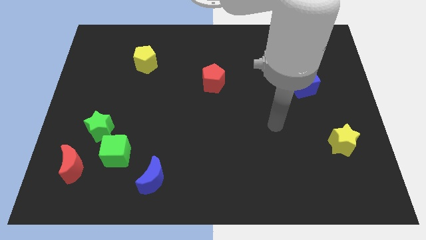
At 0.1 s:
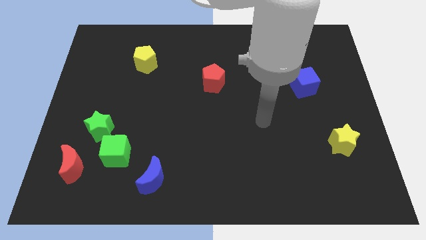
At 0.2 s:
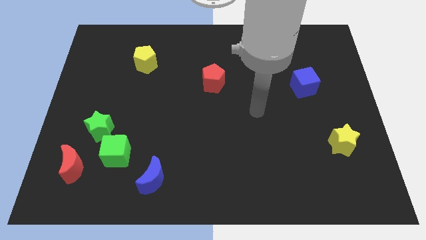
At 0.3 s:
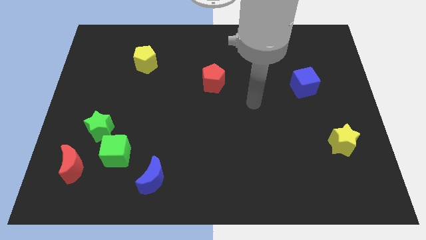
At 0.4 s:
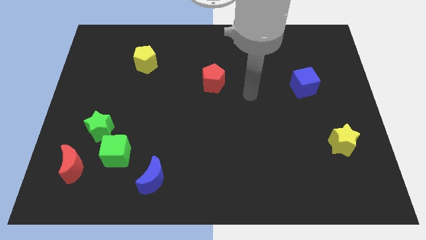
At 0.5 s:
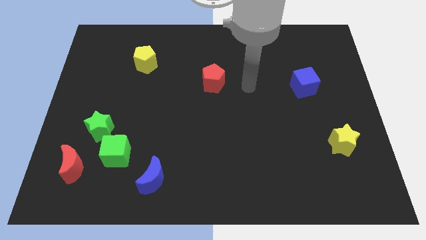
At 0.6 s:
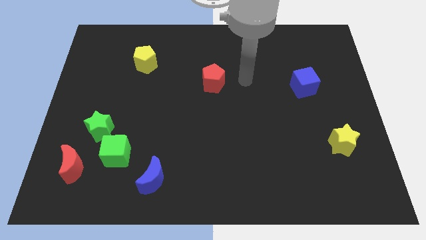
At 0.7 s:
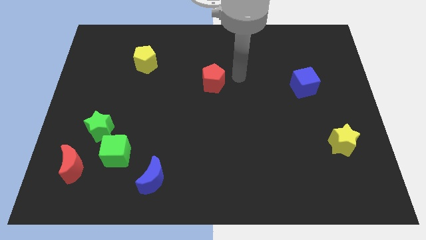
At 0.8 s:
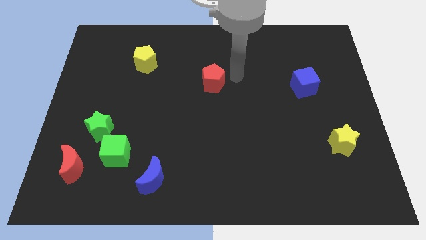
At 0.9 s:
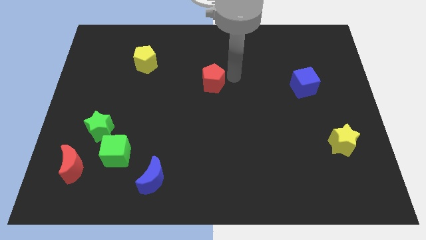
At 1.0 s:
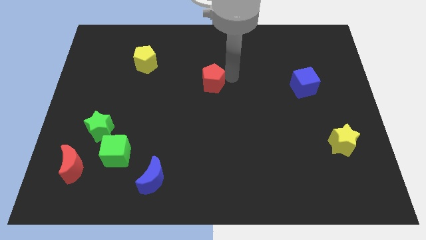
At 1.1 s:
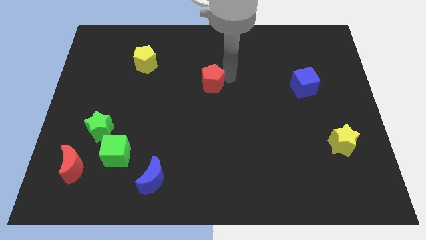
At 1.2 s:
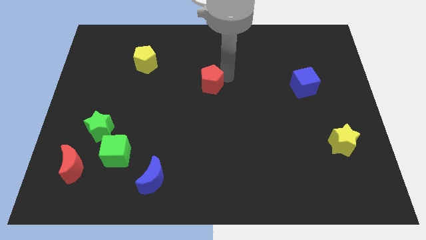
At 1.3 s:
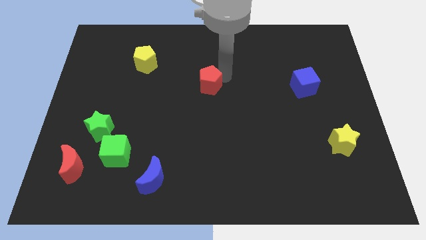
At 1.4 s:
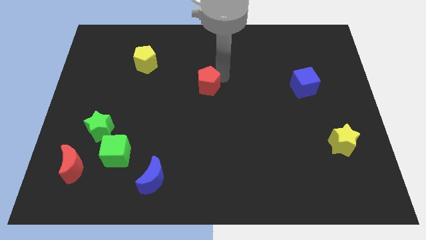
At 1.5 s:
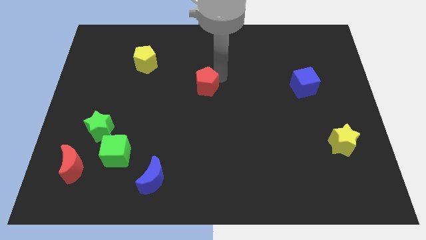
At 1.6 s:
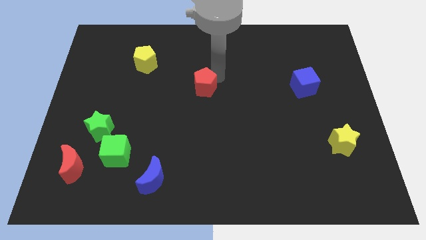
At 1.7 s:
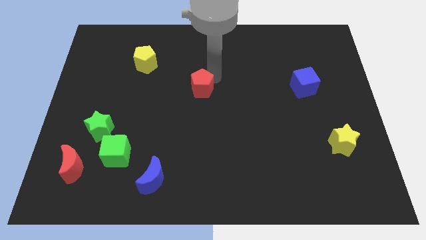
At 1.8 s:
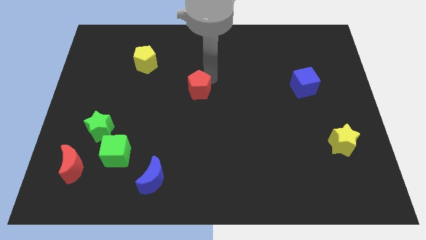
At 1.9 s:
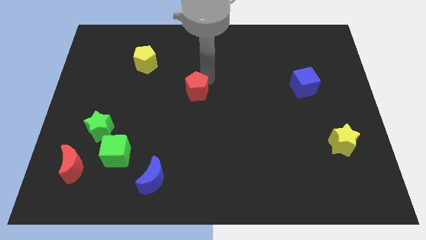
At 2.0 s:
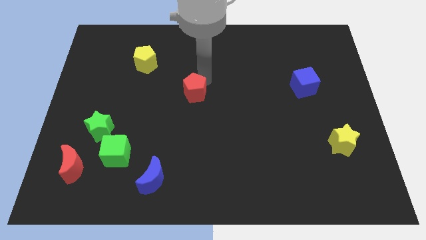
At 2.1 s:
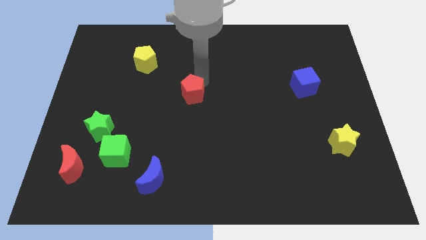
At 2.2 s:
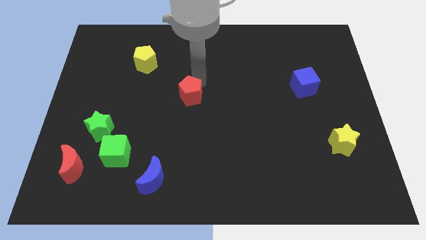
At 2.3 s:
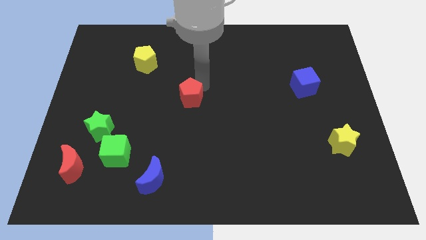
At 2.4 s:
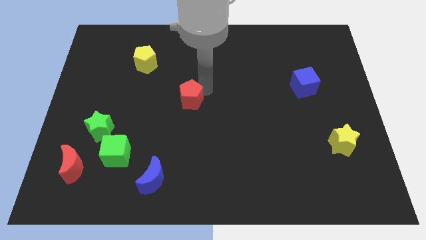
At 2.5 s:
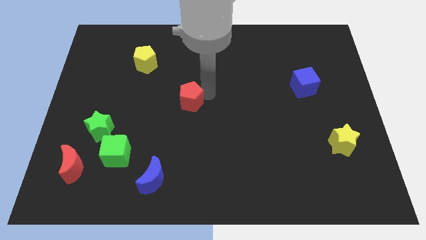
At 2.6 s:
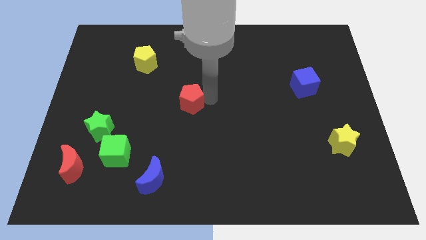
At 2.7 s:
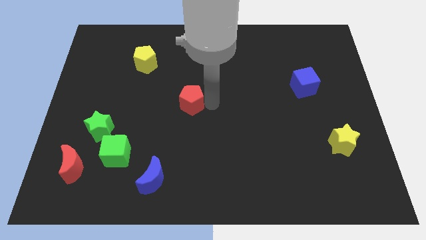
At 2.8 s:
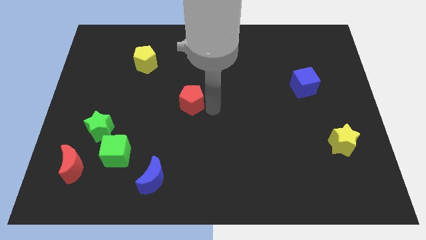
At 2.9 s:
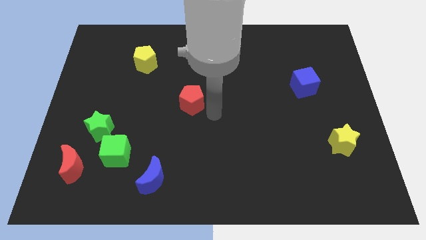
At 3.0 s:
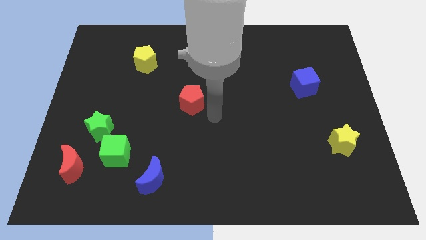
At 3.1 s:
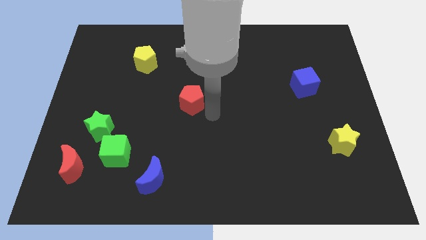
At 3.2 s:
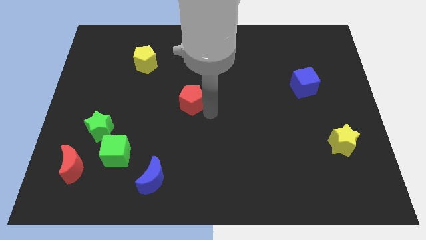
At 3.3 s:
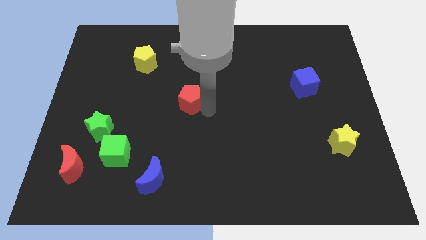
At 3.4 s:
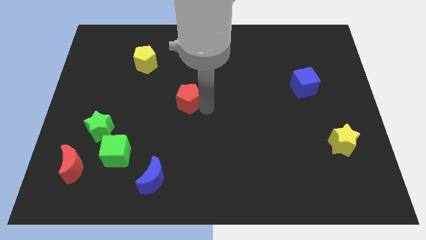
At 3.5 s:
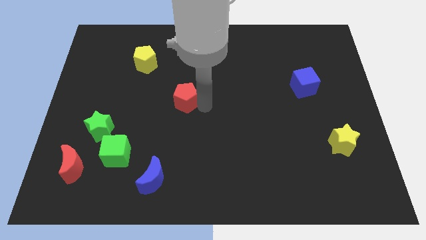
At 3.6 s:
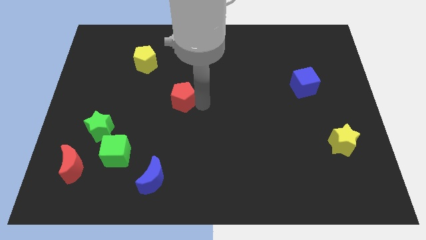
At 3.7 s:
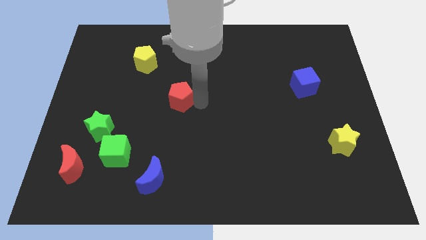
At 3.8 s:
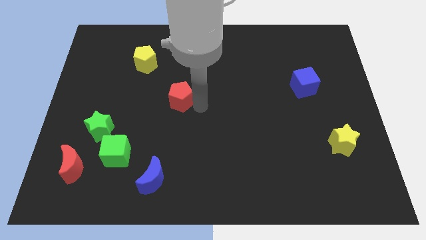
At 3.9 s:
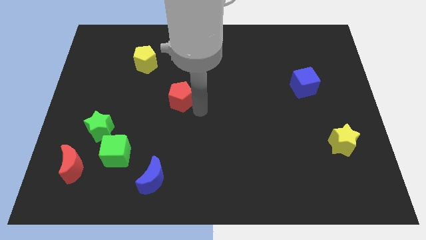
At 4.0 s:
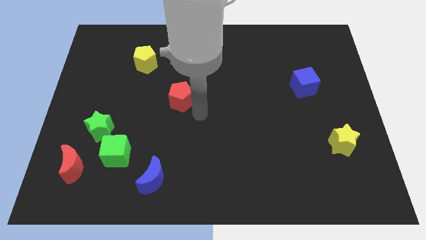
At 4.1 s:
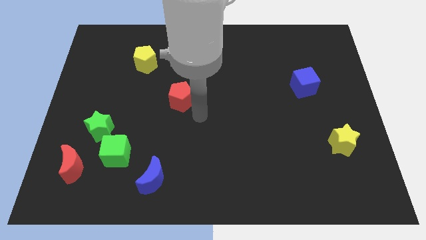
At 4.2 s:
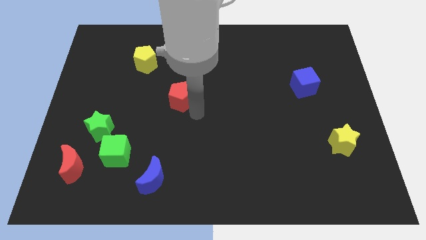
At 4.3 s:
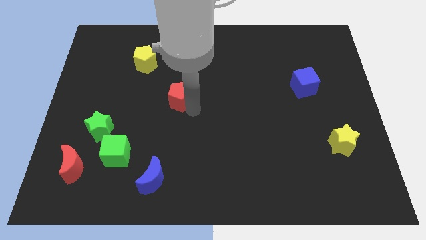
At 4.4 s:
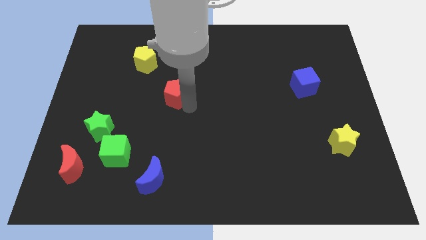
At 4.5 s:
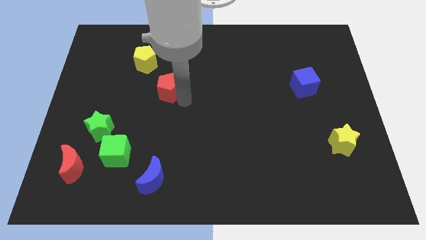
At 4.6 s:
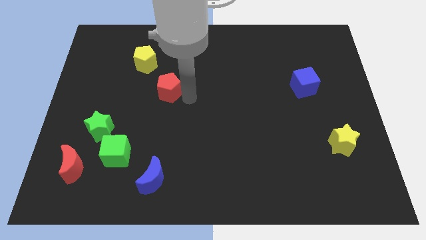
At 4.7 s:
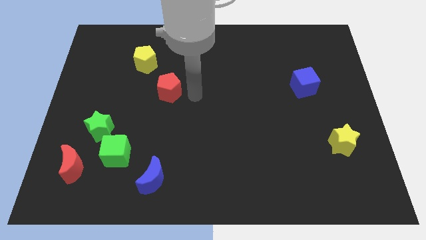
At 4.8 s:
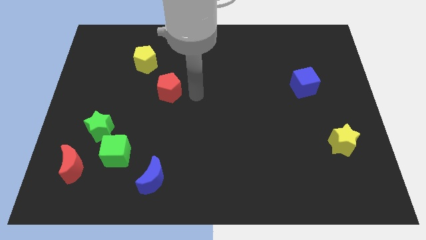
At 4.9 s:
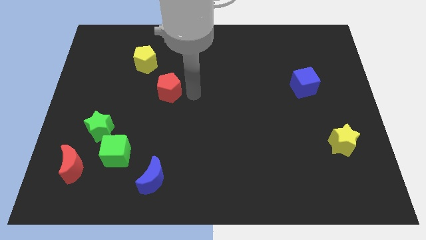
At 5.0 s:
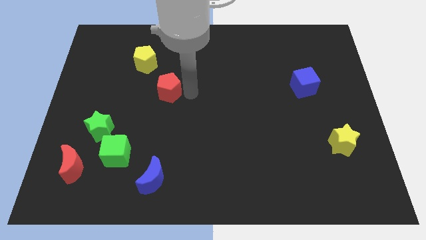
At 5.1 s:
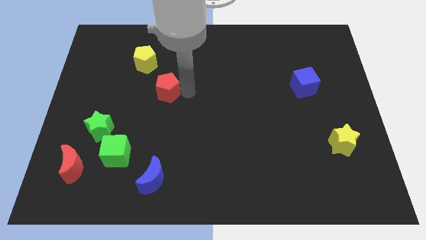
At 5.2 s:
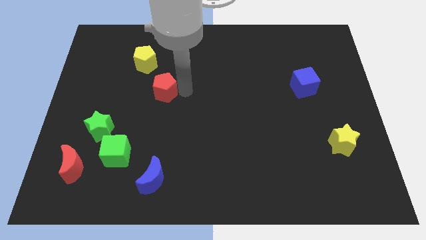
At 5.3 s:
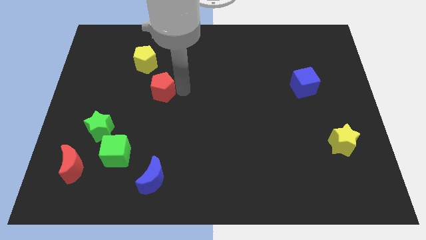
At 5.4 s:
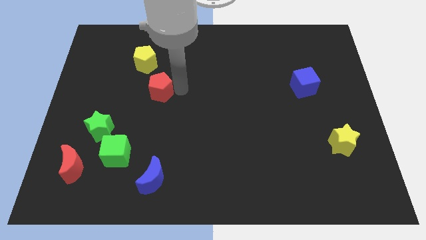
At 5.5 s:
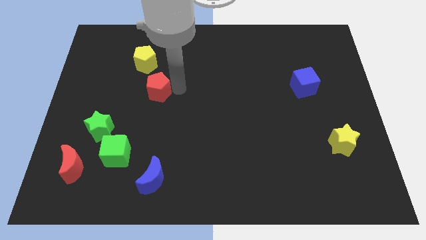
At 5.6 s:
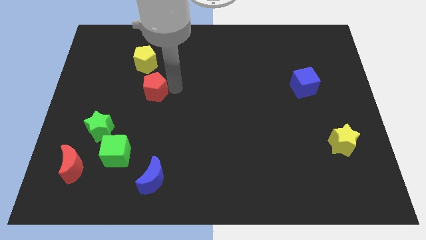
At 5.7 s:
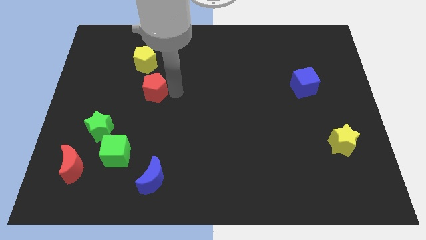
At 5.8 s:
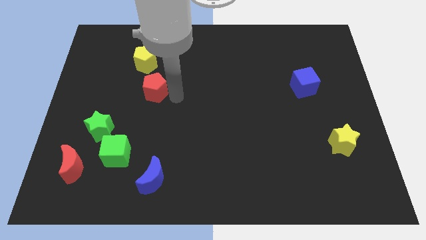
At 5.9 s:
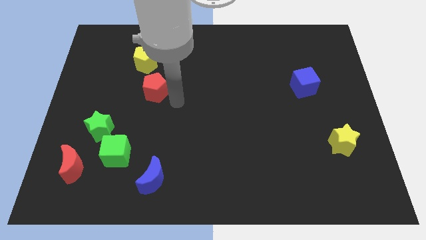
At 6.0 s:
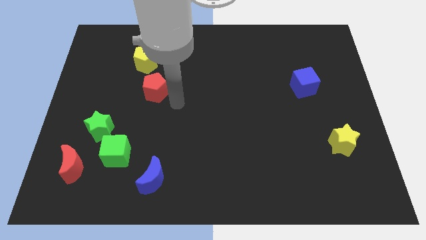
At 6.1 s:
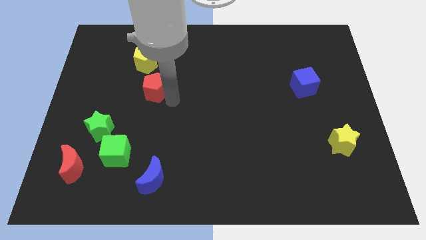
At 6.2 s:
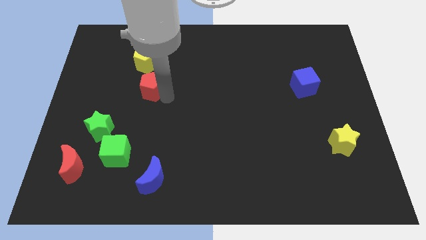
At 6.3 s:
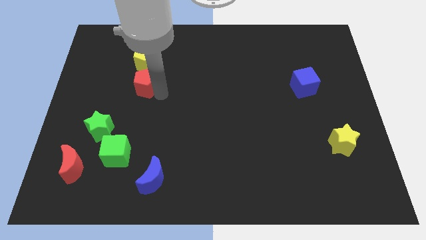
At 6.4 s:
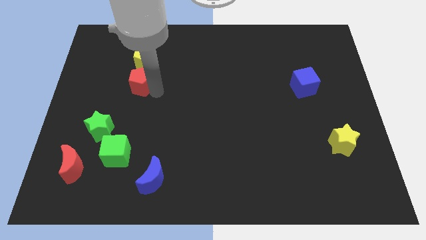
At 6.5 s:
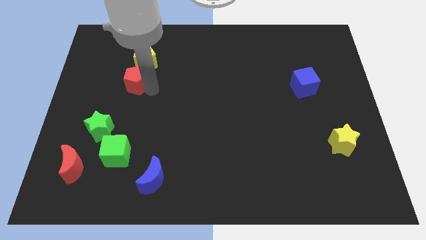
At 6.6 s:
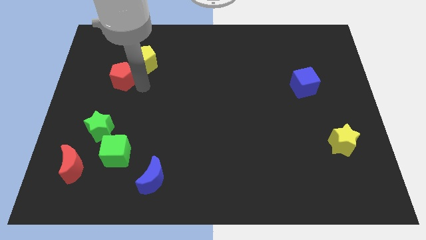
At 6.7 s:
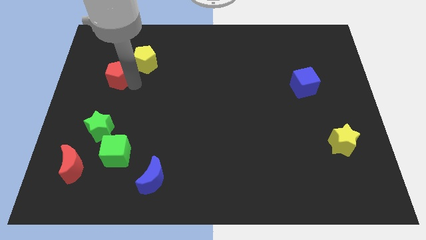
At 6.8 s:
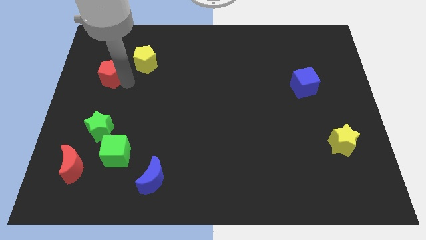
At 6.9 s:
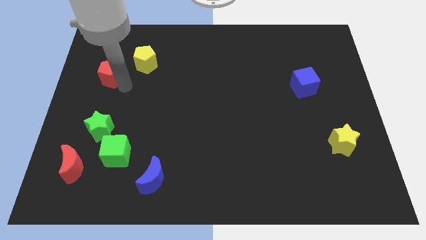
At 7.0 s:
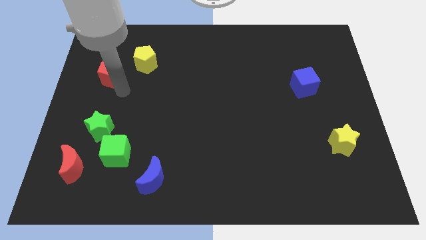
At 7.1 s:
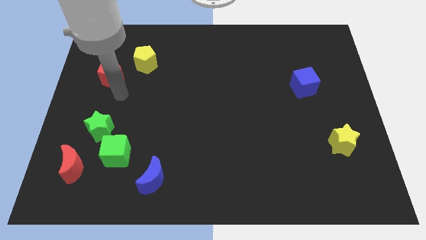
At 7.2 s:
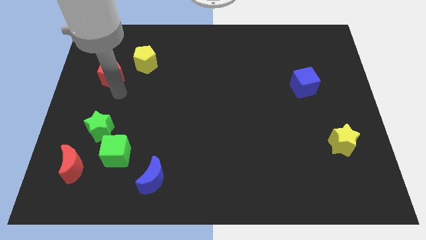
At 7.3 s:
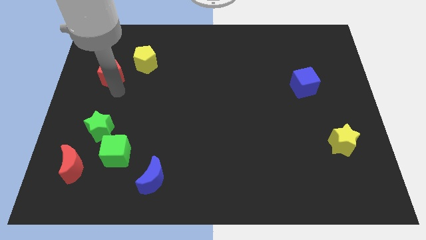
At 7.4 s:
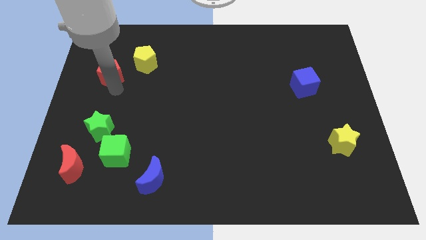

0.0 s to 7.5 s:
slide the red pentagon to the left side of the yellow pentagon
